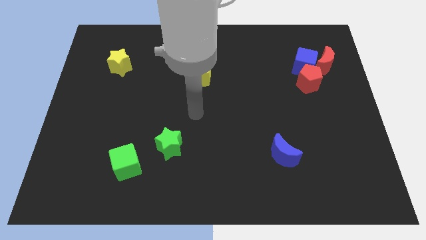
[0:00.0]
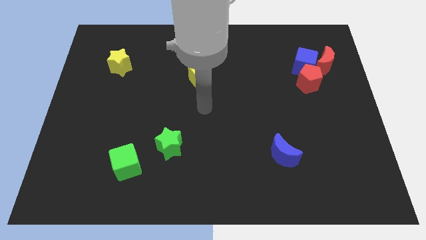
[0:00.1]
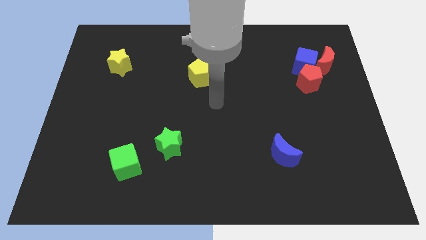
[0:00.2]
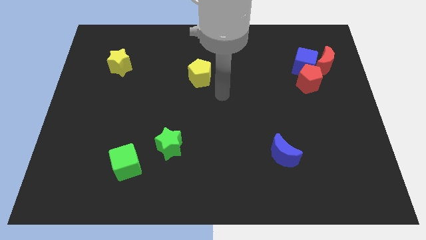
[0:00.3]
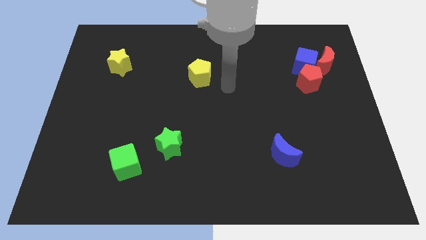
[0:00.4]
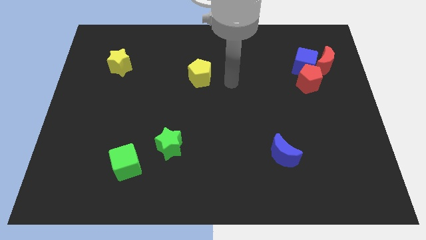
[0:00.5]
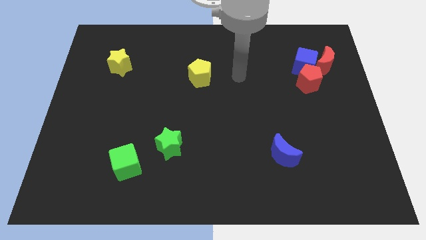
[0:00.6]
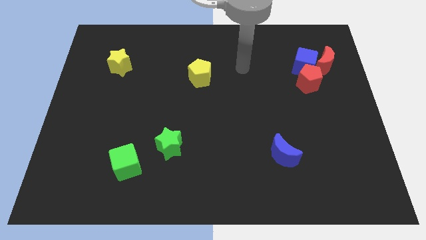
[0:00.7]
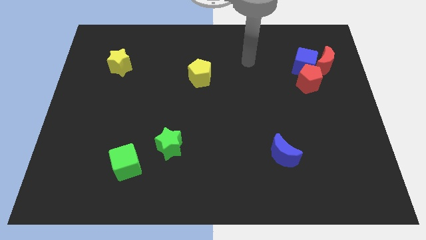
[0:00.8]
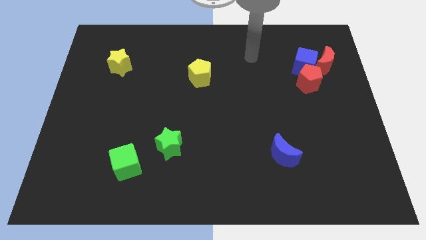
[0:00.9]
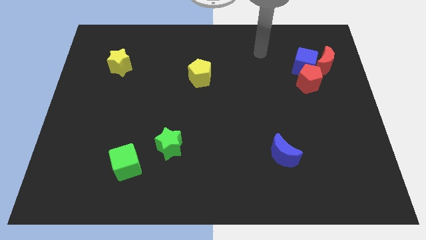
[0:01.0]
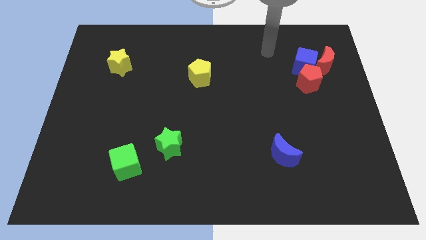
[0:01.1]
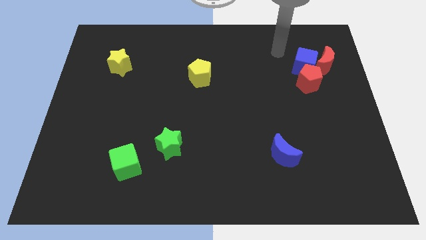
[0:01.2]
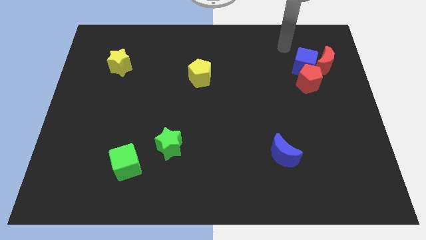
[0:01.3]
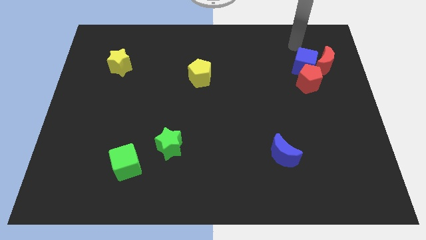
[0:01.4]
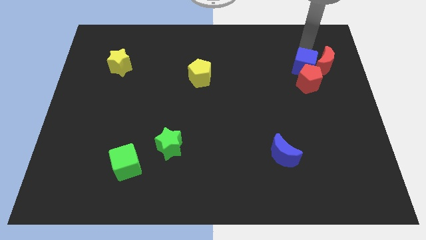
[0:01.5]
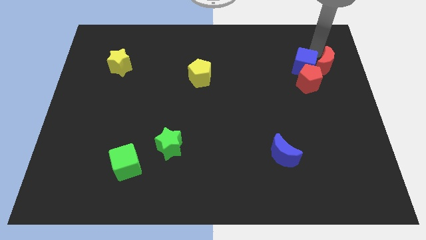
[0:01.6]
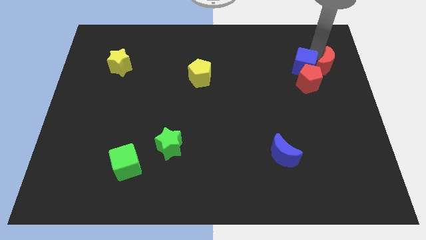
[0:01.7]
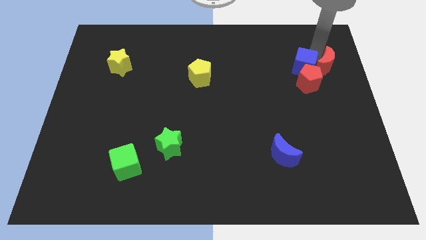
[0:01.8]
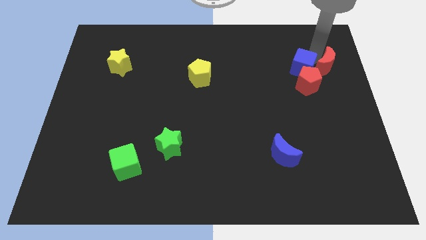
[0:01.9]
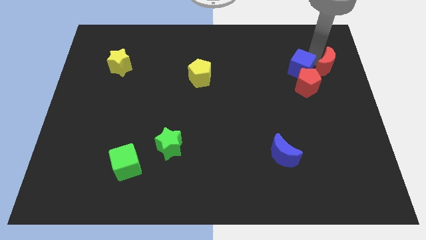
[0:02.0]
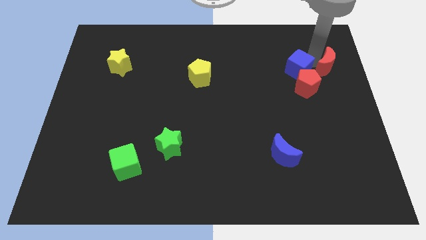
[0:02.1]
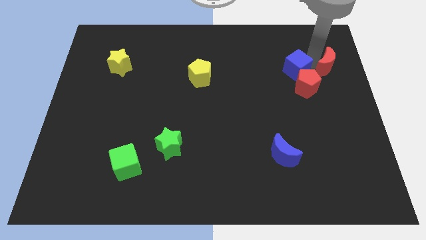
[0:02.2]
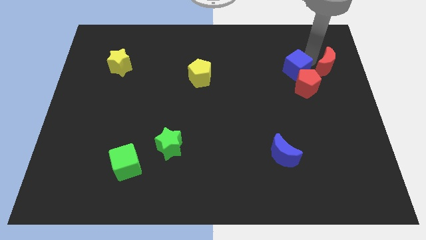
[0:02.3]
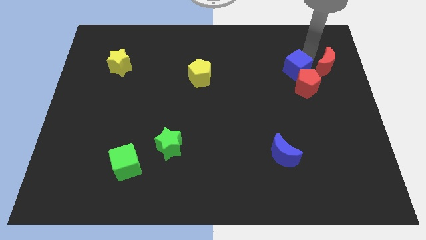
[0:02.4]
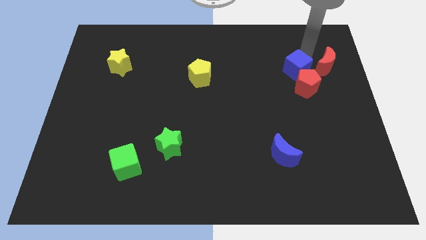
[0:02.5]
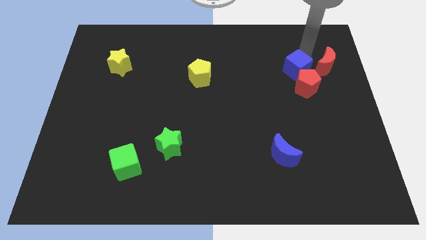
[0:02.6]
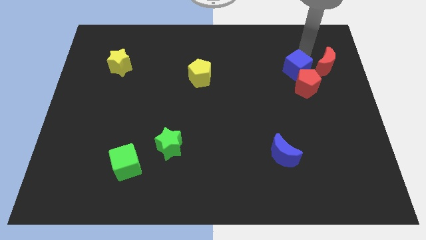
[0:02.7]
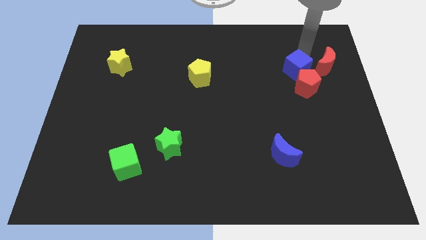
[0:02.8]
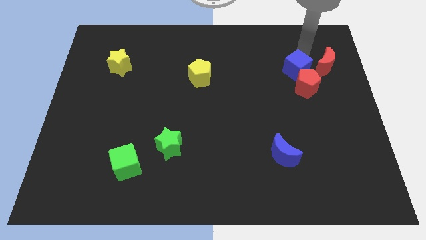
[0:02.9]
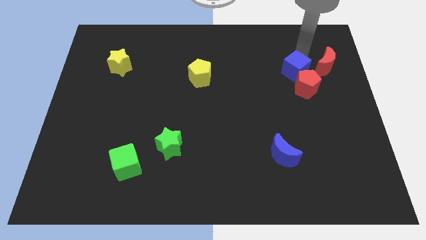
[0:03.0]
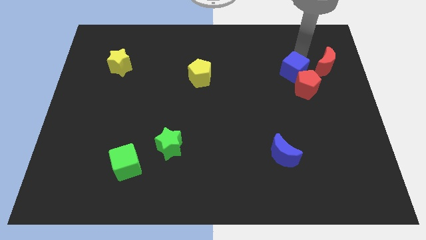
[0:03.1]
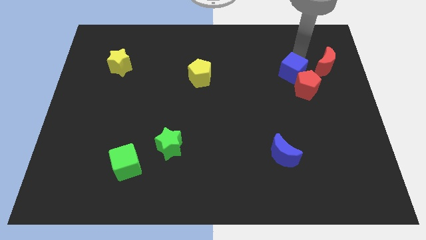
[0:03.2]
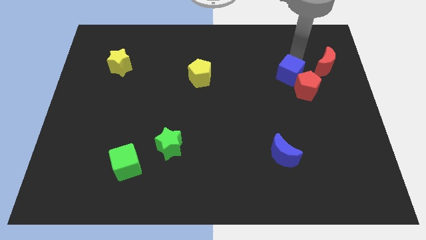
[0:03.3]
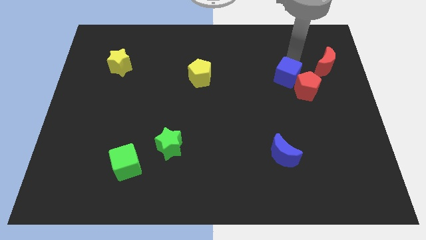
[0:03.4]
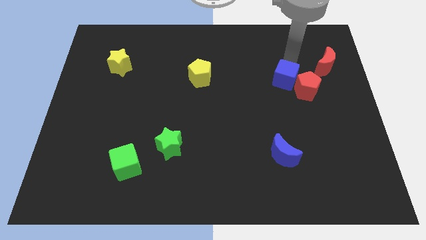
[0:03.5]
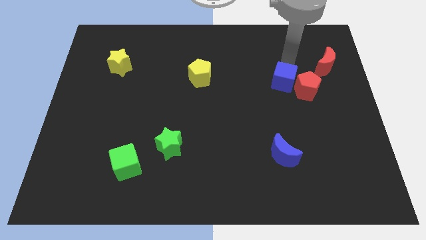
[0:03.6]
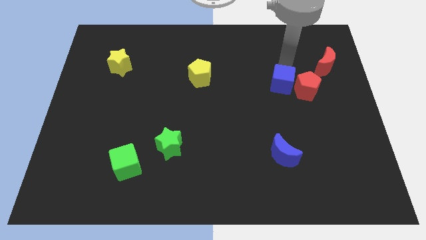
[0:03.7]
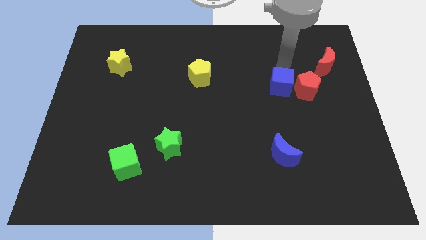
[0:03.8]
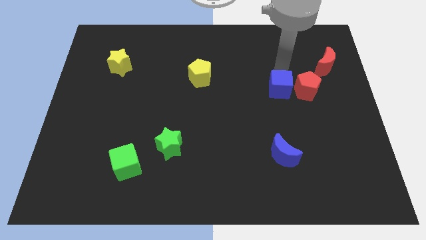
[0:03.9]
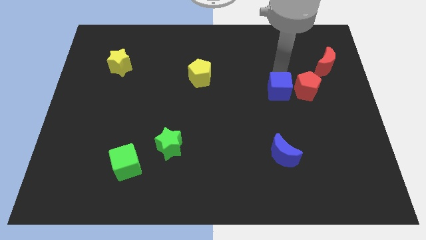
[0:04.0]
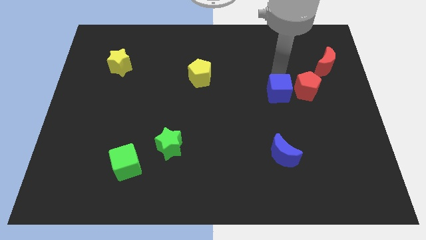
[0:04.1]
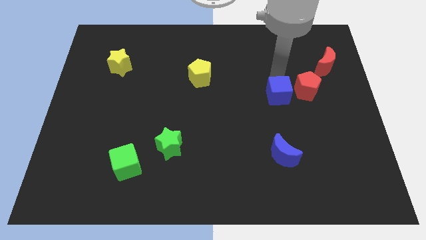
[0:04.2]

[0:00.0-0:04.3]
push the blue cube a little bit downwards

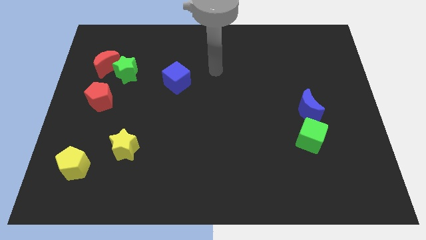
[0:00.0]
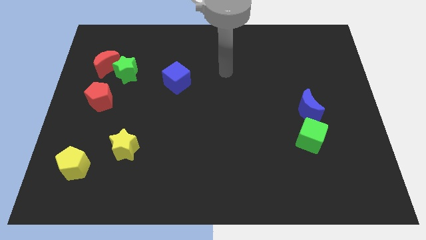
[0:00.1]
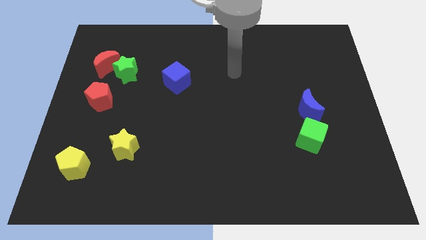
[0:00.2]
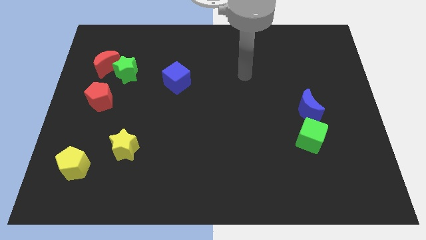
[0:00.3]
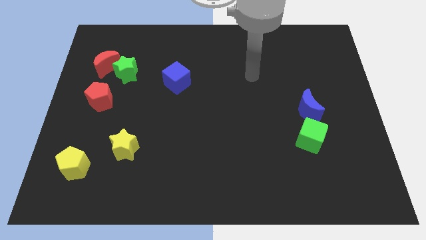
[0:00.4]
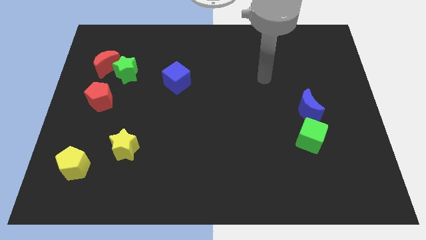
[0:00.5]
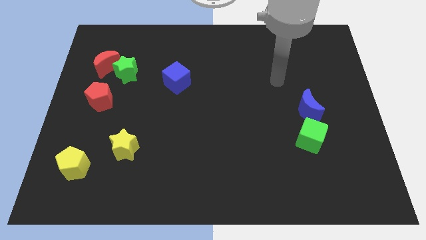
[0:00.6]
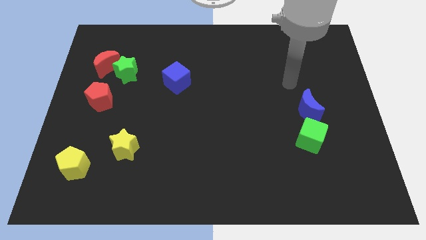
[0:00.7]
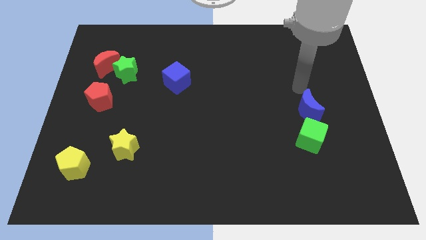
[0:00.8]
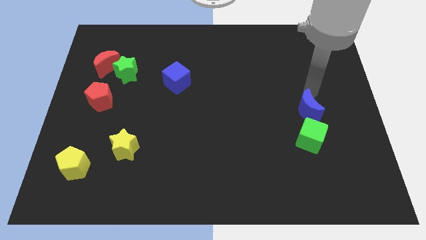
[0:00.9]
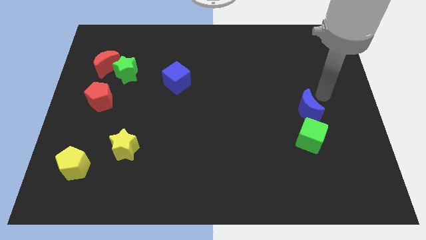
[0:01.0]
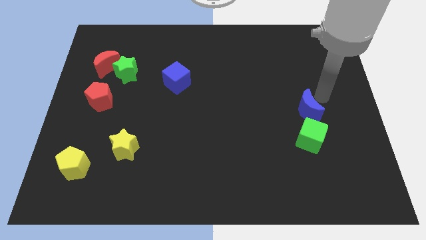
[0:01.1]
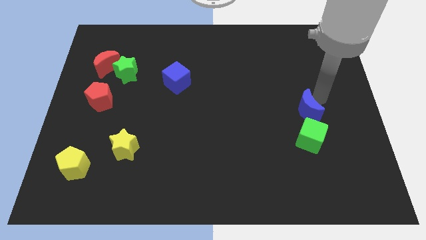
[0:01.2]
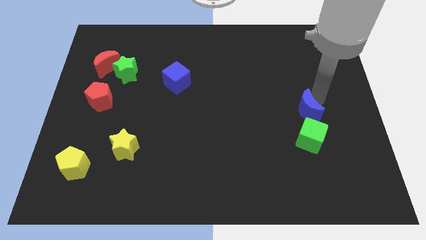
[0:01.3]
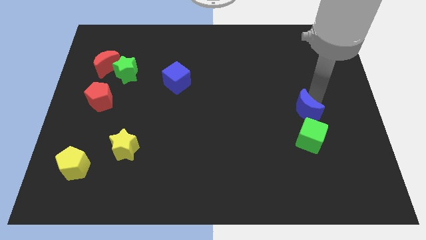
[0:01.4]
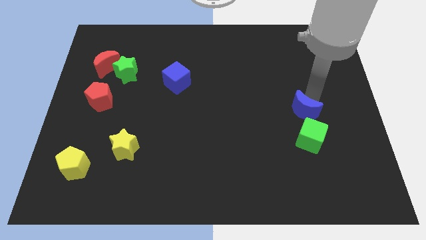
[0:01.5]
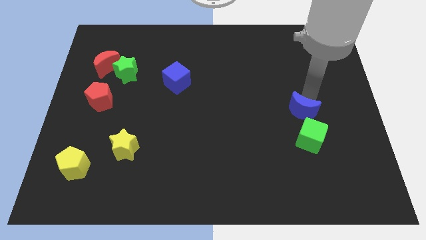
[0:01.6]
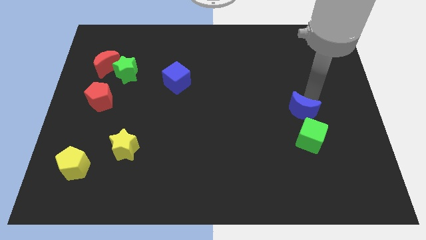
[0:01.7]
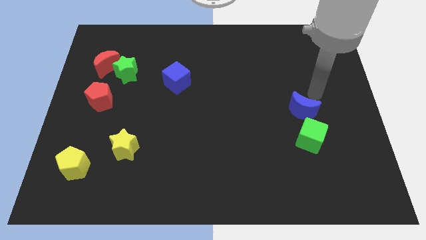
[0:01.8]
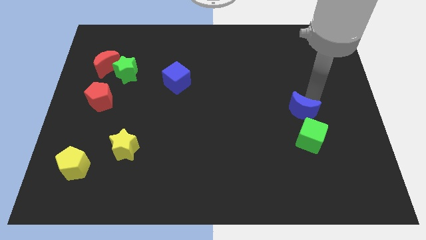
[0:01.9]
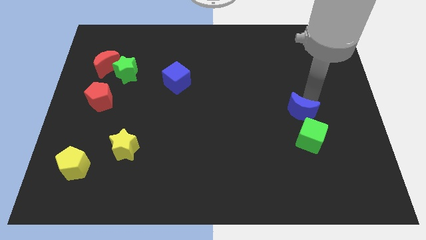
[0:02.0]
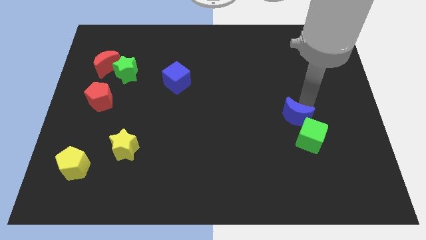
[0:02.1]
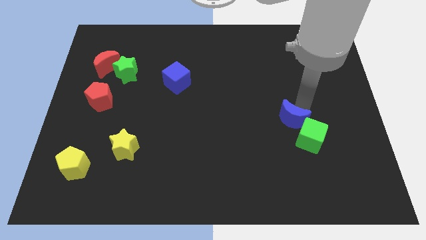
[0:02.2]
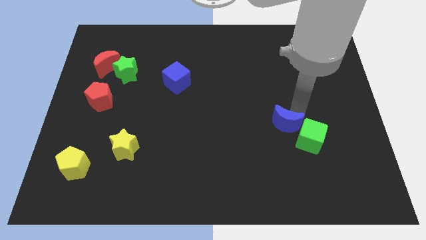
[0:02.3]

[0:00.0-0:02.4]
slightly move the blue moon diagonally down and left

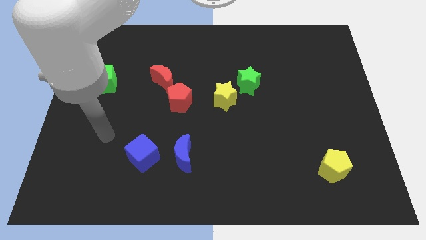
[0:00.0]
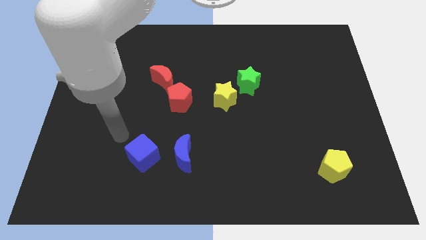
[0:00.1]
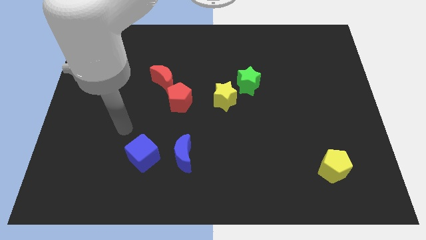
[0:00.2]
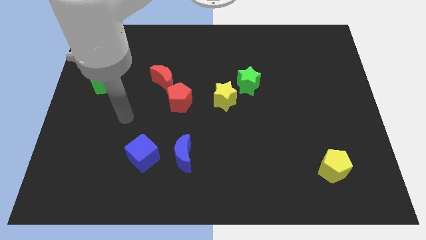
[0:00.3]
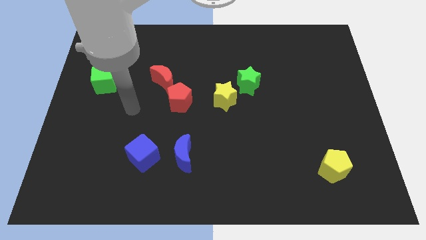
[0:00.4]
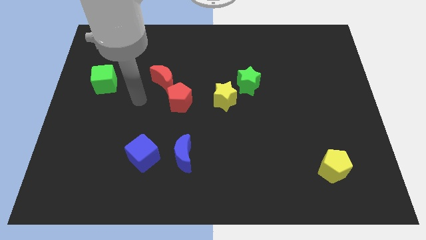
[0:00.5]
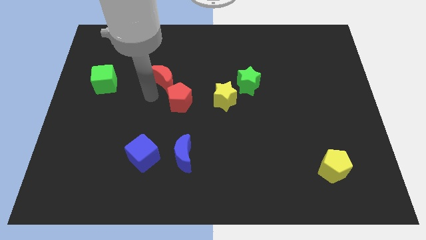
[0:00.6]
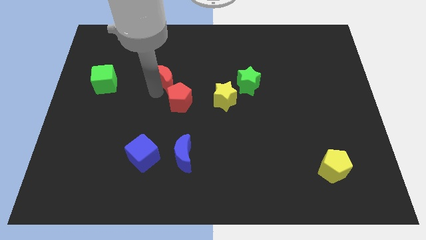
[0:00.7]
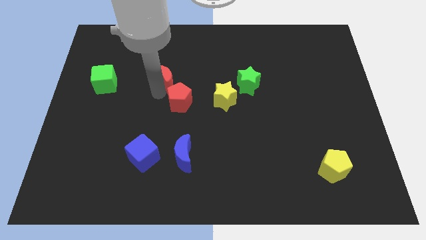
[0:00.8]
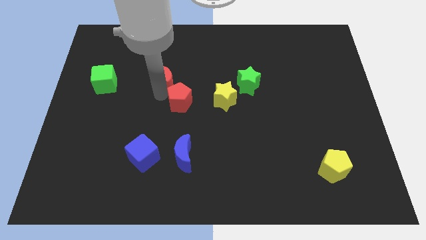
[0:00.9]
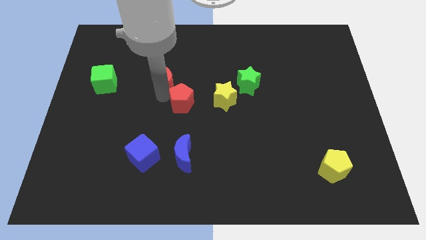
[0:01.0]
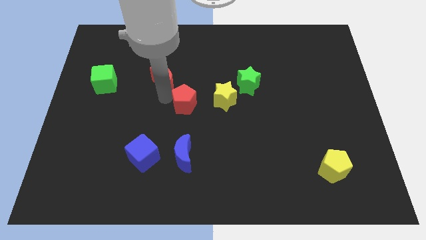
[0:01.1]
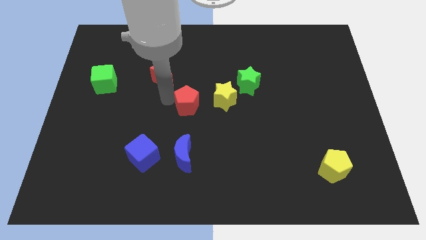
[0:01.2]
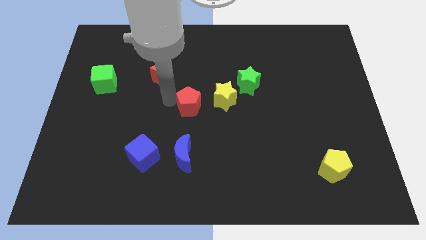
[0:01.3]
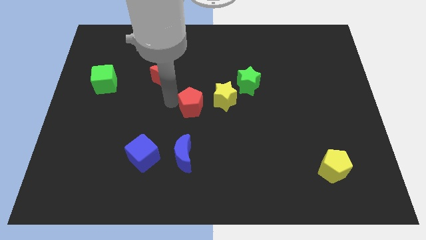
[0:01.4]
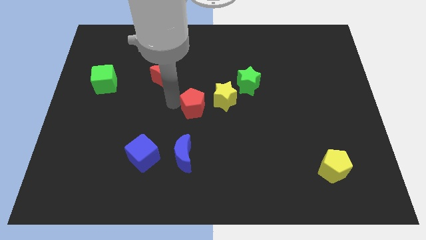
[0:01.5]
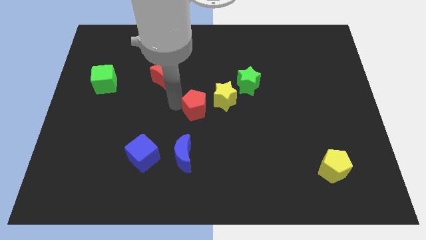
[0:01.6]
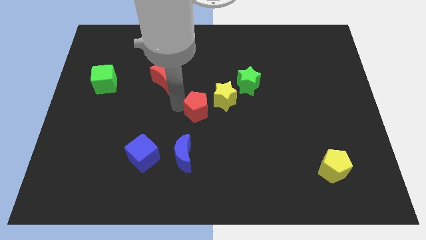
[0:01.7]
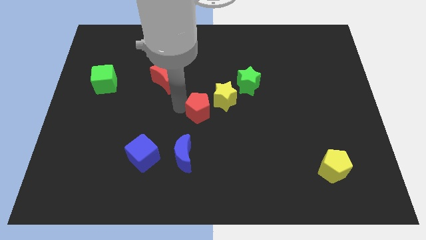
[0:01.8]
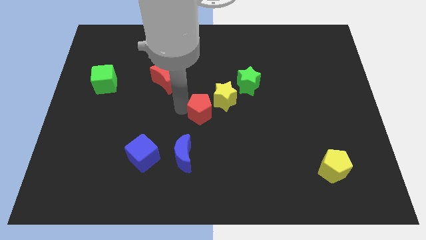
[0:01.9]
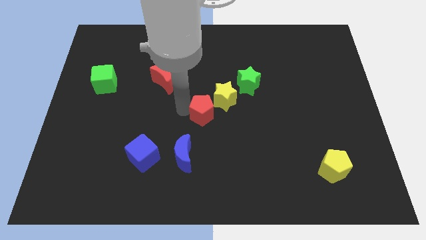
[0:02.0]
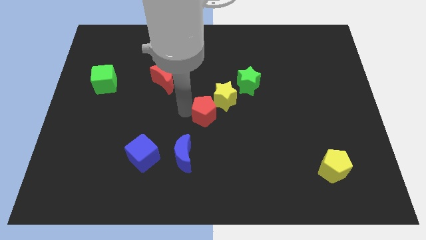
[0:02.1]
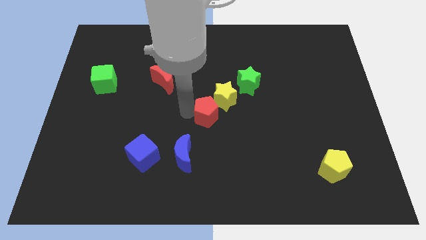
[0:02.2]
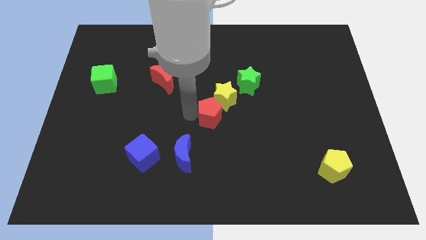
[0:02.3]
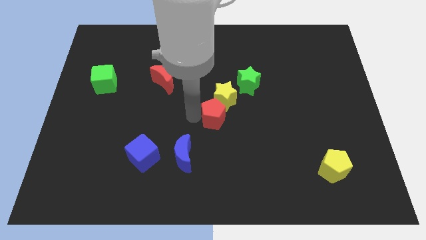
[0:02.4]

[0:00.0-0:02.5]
slightly slide the red pentagon to the right
